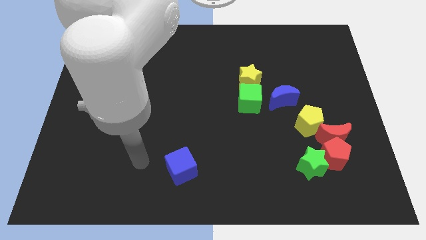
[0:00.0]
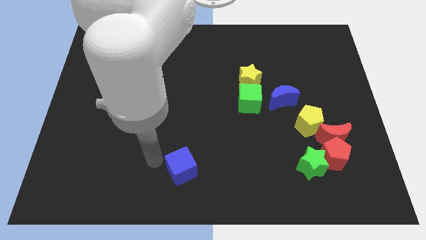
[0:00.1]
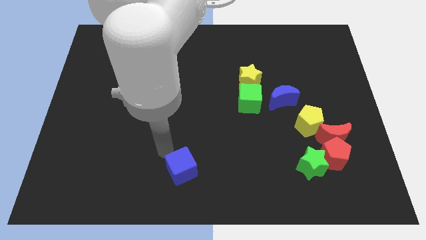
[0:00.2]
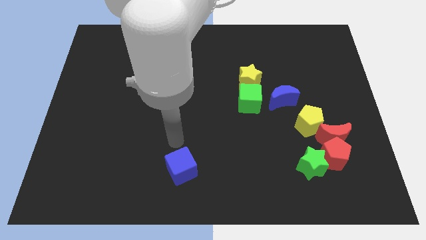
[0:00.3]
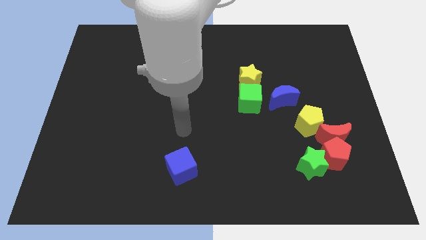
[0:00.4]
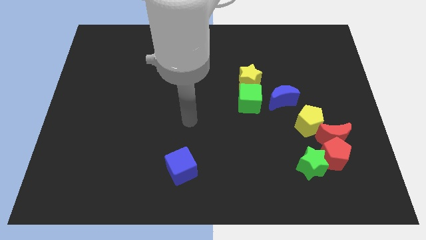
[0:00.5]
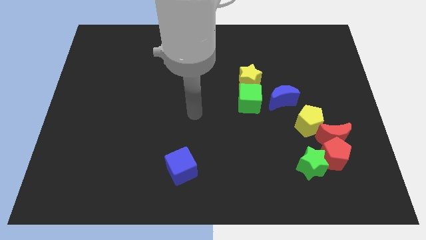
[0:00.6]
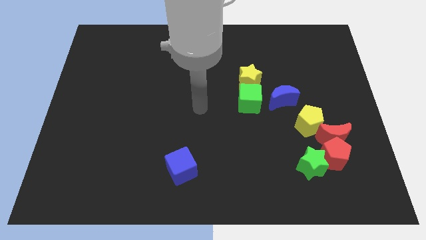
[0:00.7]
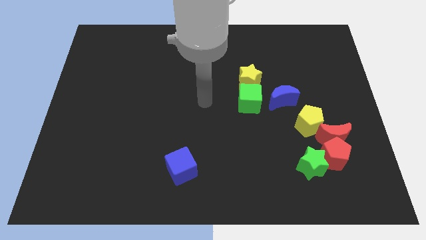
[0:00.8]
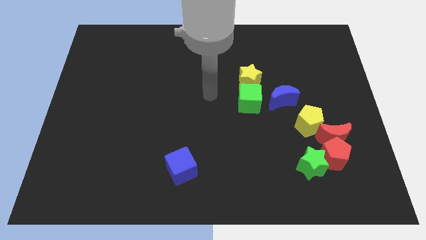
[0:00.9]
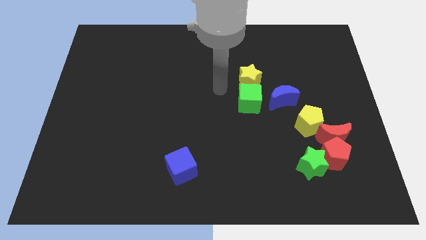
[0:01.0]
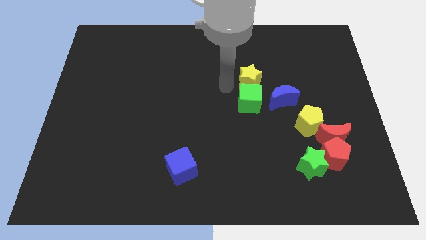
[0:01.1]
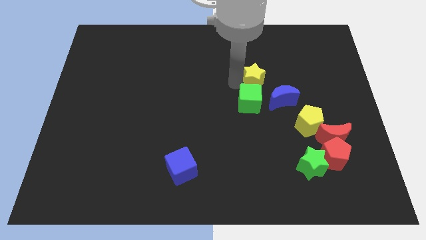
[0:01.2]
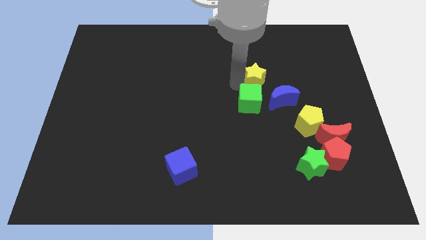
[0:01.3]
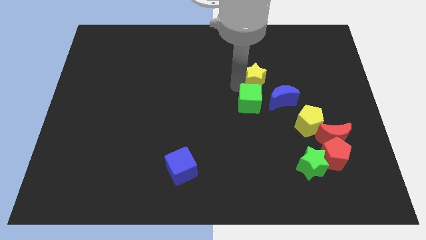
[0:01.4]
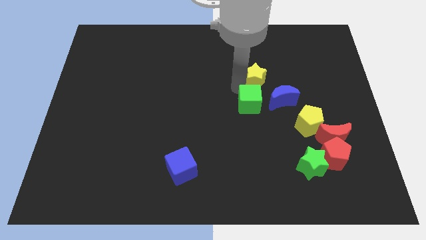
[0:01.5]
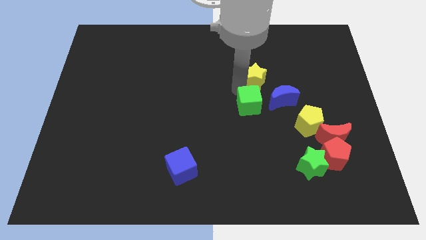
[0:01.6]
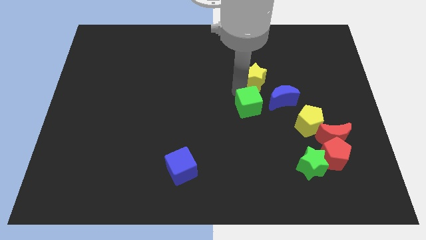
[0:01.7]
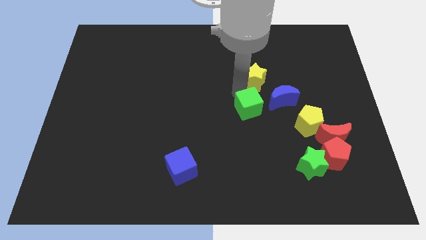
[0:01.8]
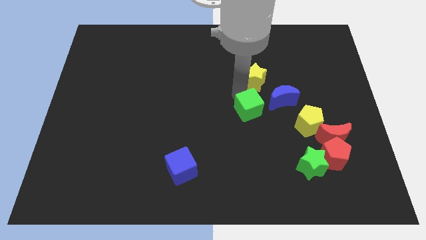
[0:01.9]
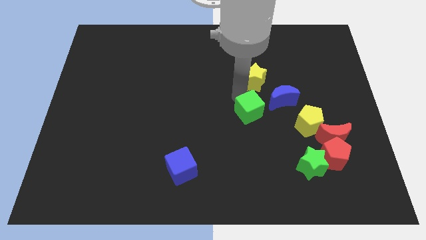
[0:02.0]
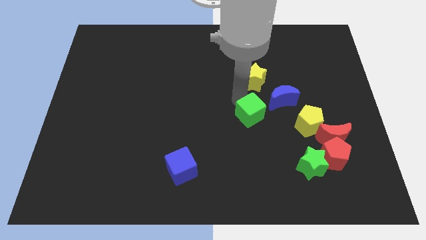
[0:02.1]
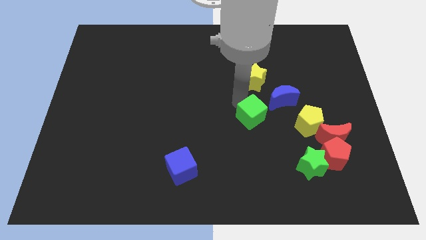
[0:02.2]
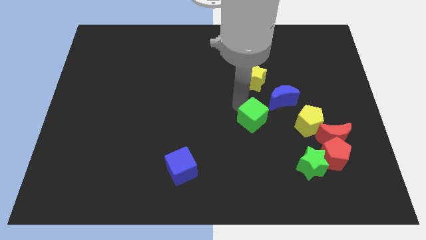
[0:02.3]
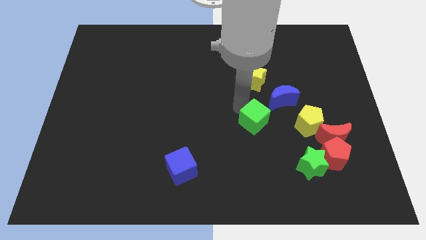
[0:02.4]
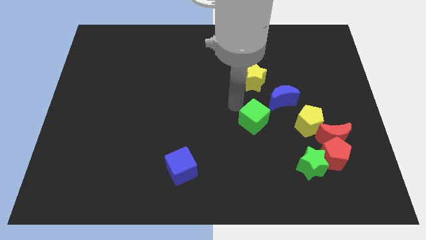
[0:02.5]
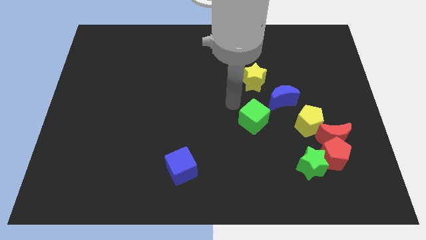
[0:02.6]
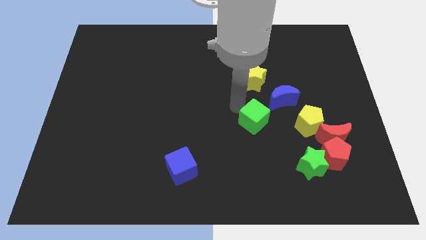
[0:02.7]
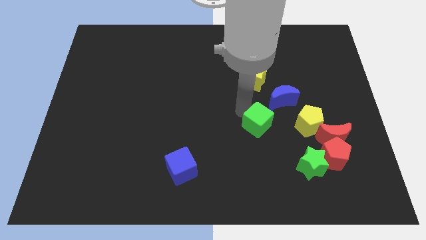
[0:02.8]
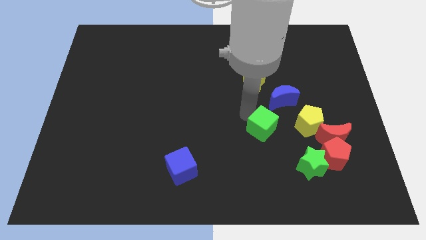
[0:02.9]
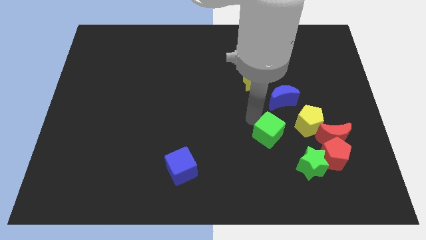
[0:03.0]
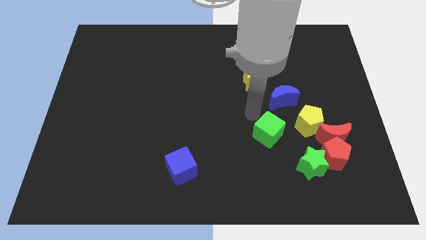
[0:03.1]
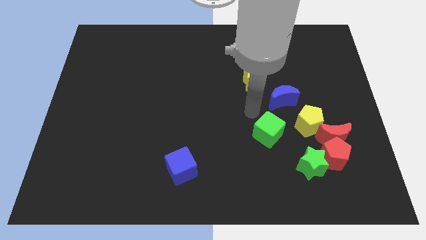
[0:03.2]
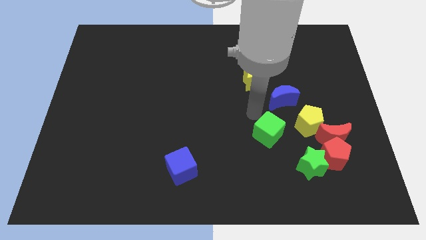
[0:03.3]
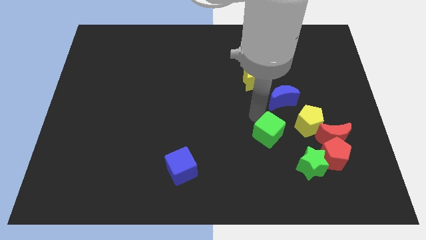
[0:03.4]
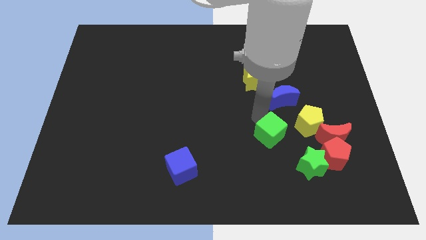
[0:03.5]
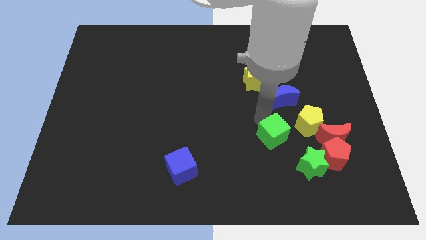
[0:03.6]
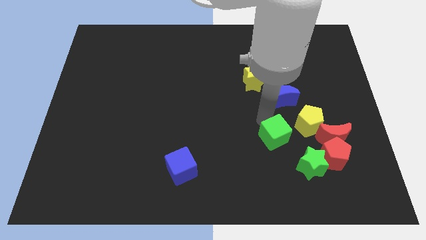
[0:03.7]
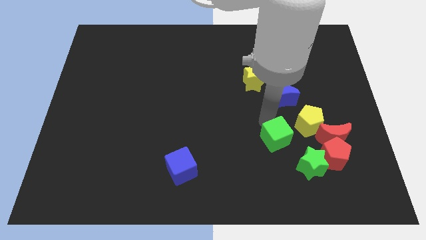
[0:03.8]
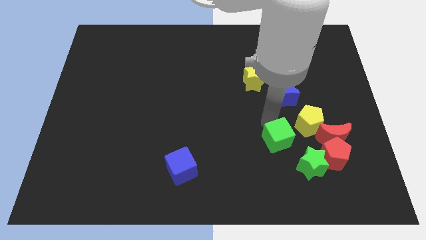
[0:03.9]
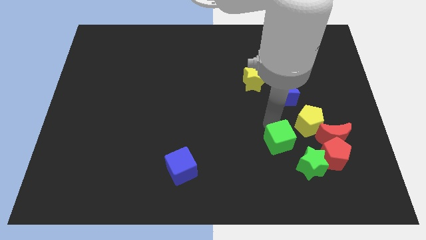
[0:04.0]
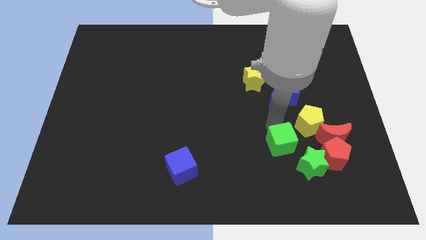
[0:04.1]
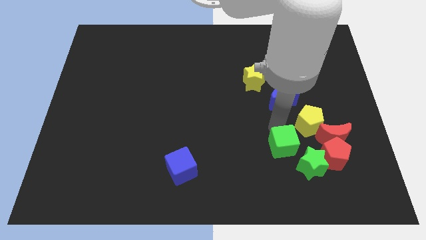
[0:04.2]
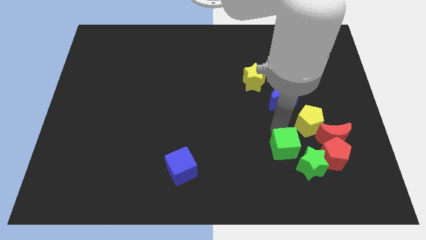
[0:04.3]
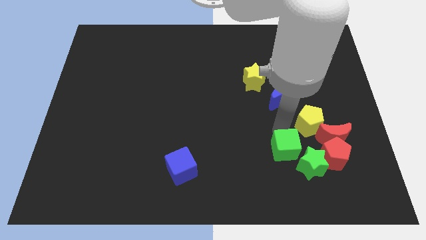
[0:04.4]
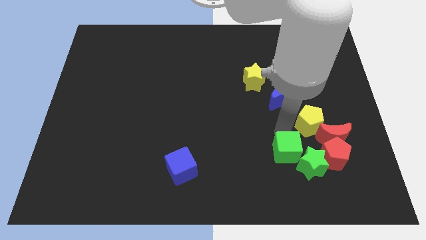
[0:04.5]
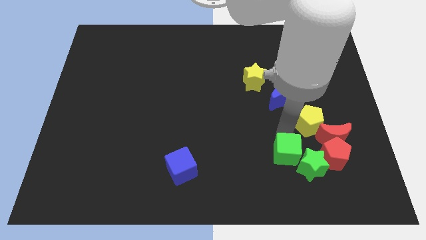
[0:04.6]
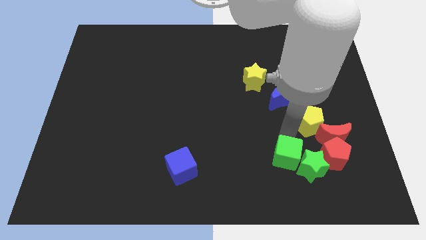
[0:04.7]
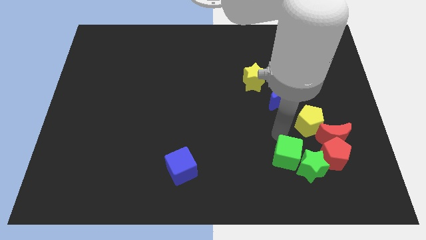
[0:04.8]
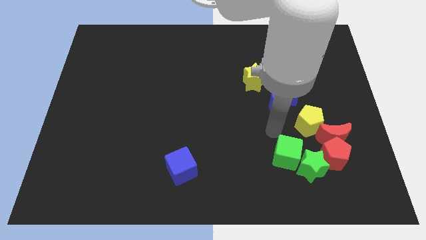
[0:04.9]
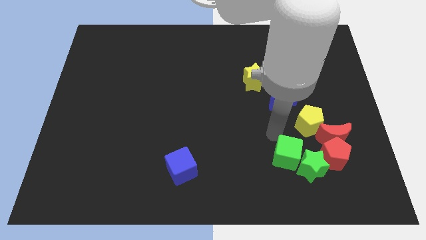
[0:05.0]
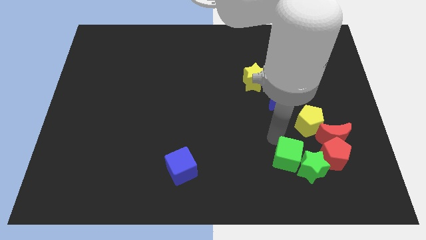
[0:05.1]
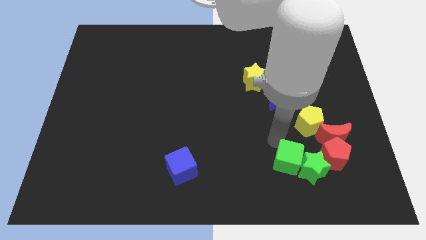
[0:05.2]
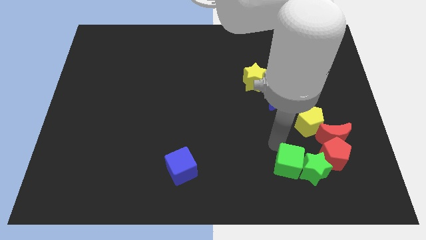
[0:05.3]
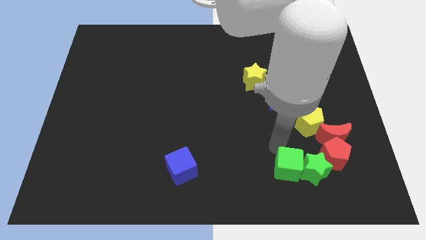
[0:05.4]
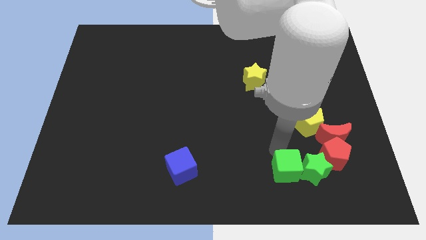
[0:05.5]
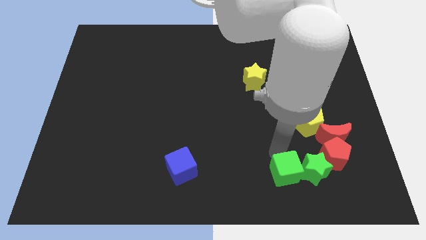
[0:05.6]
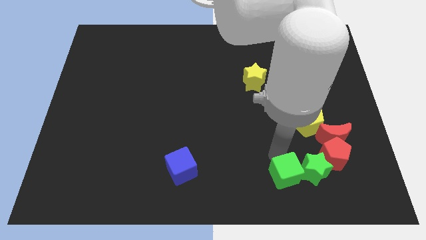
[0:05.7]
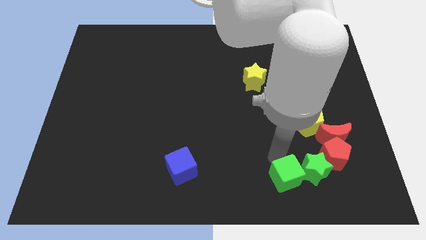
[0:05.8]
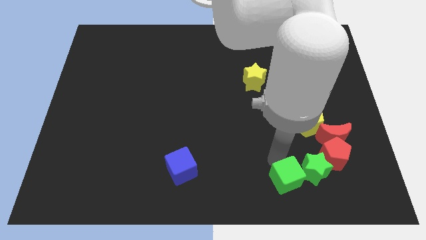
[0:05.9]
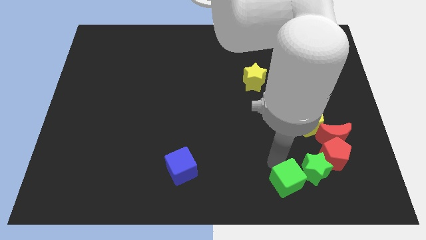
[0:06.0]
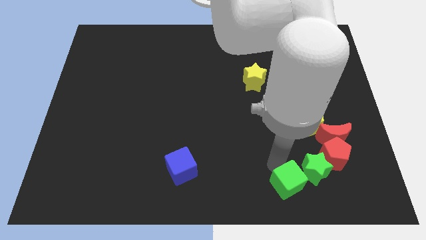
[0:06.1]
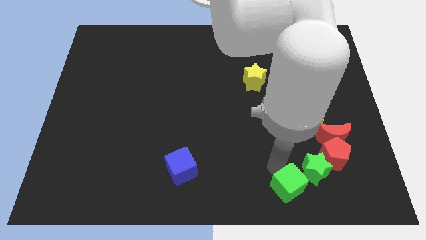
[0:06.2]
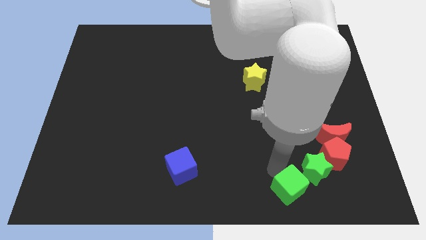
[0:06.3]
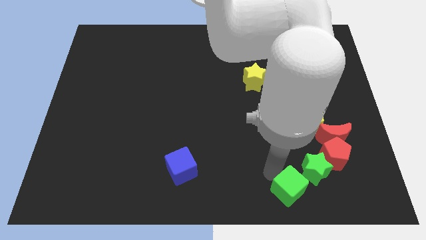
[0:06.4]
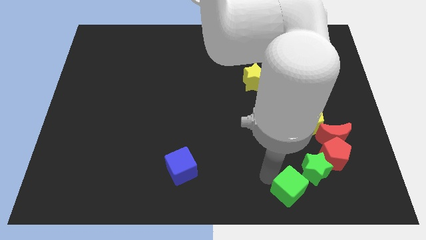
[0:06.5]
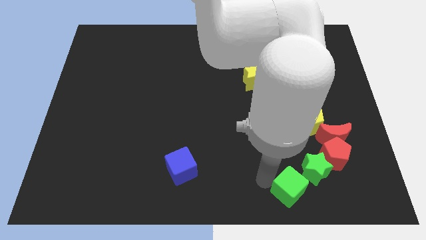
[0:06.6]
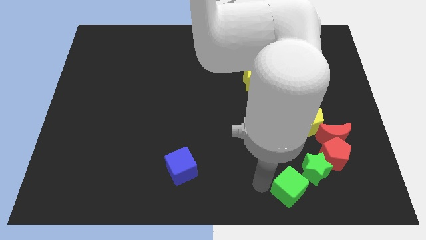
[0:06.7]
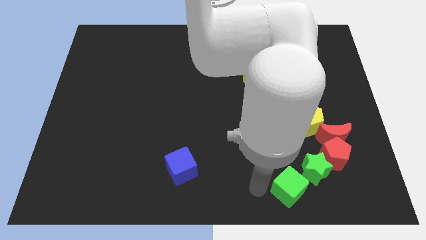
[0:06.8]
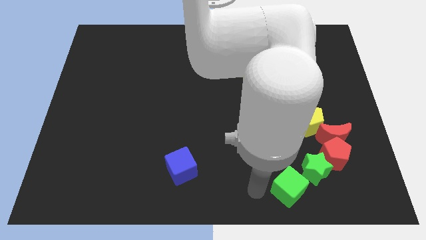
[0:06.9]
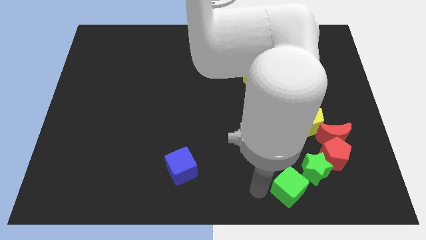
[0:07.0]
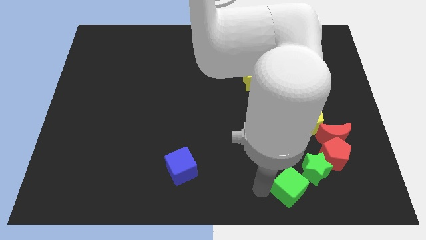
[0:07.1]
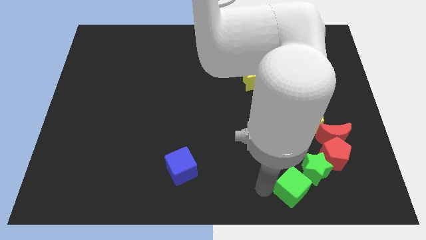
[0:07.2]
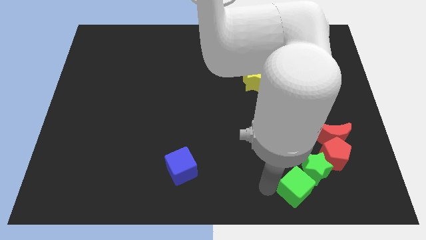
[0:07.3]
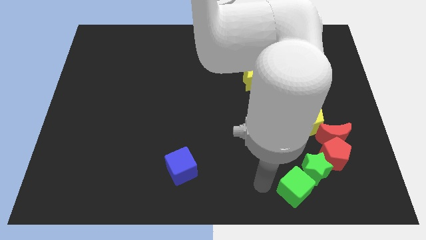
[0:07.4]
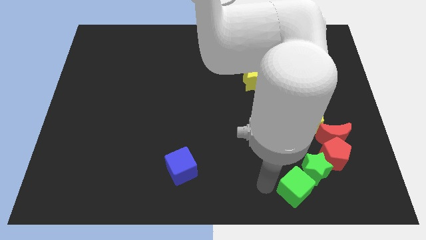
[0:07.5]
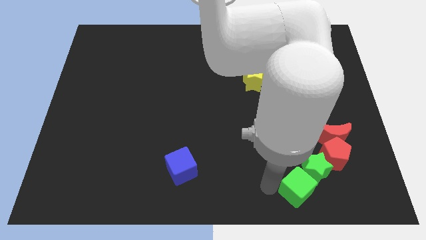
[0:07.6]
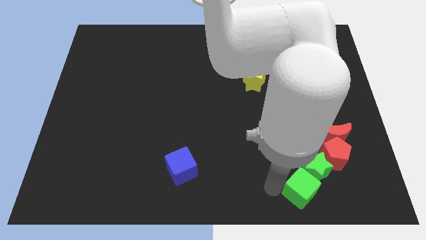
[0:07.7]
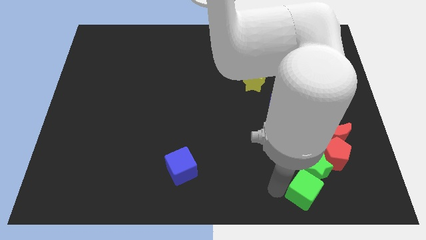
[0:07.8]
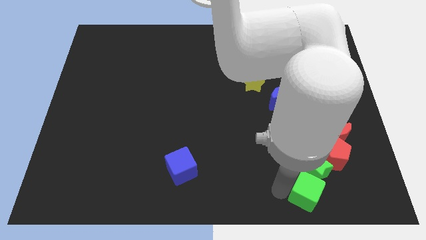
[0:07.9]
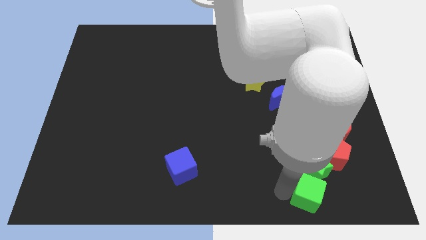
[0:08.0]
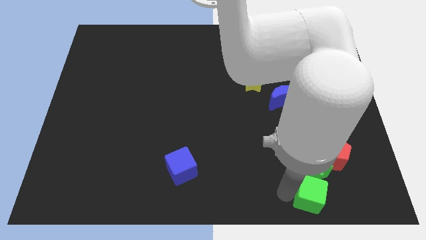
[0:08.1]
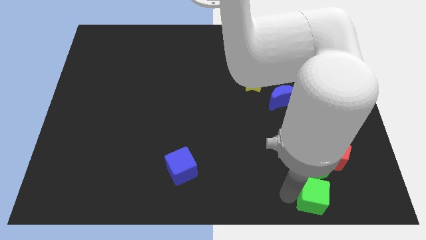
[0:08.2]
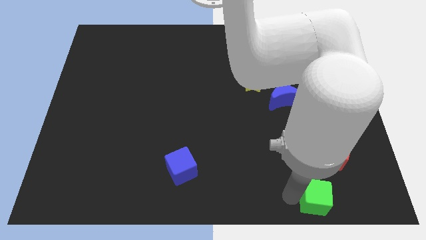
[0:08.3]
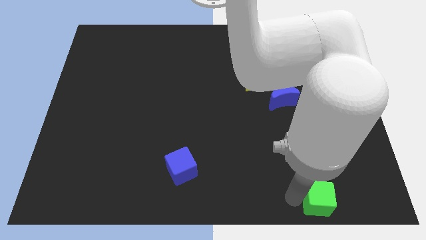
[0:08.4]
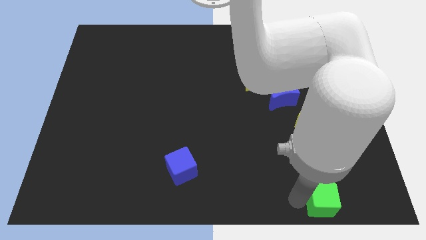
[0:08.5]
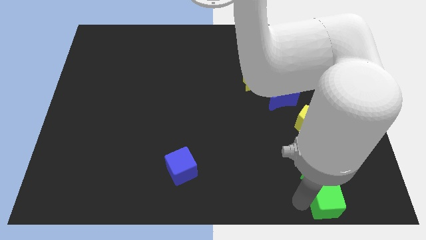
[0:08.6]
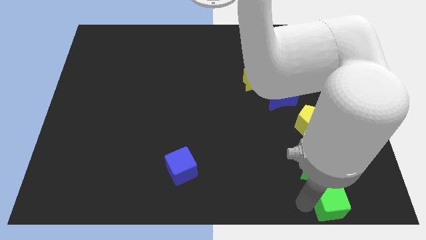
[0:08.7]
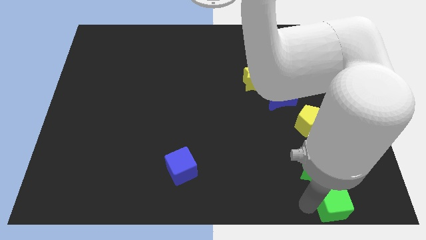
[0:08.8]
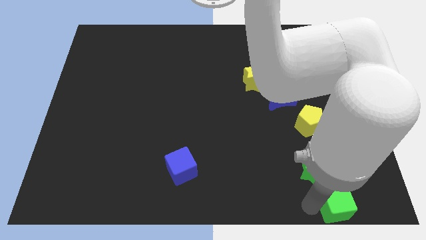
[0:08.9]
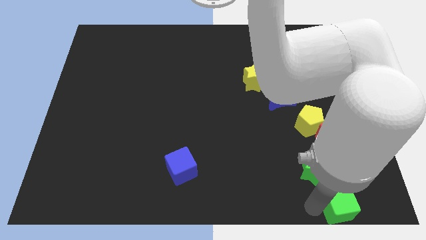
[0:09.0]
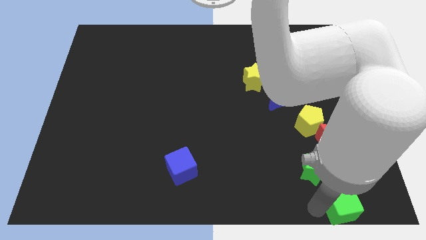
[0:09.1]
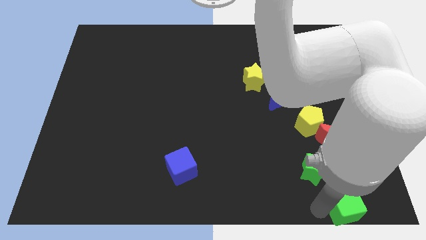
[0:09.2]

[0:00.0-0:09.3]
move the green cube to the bottom right of the board
